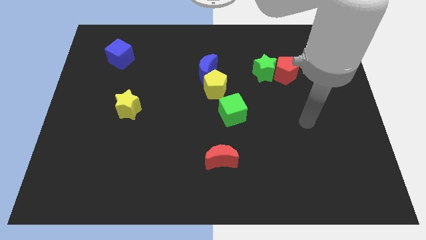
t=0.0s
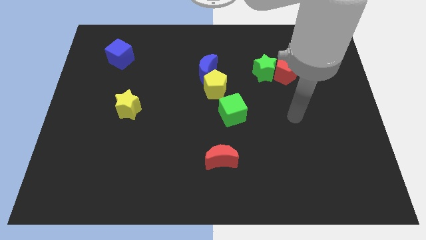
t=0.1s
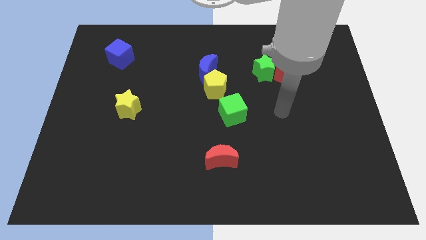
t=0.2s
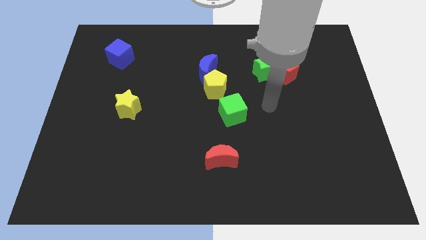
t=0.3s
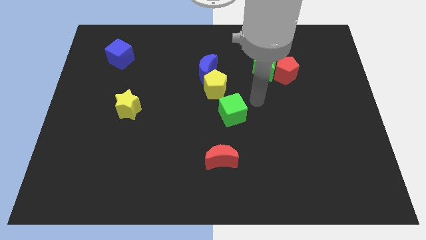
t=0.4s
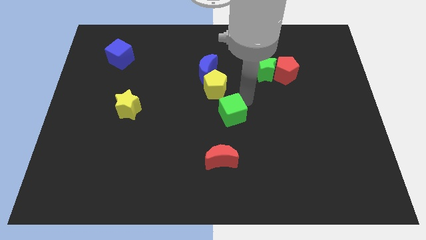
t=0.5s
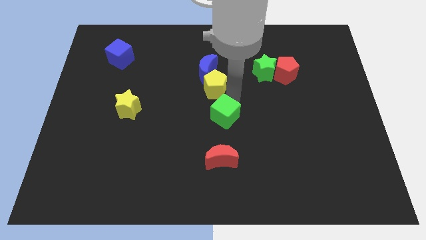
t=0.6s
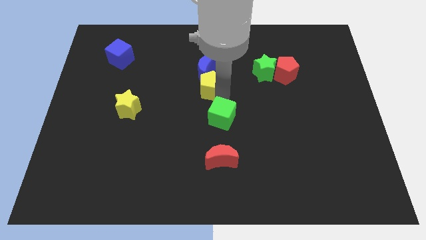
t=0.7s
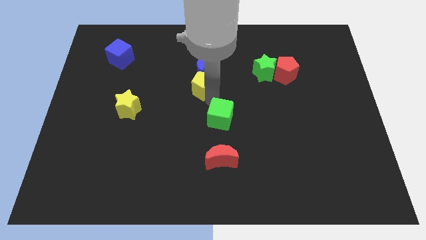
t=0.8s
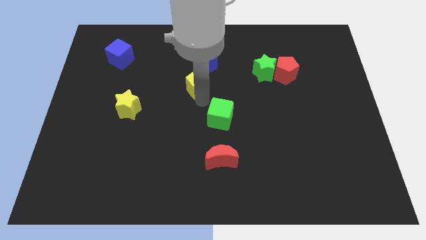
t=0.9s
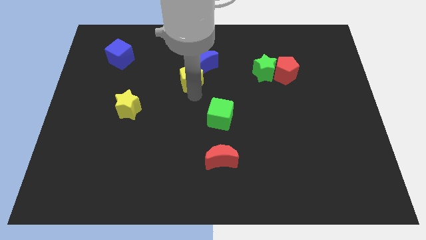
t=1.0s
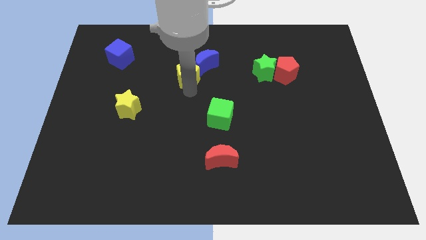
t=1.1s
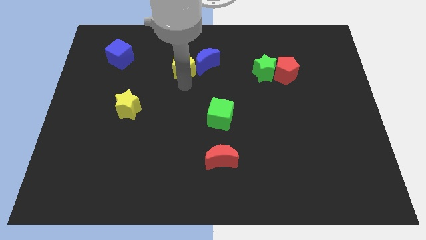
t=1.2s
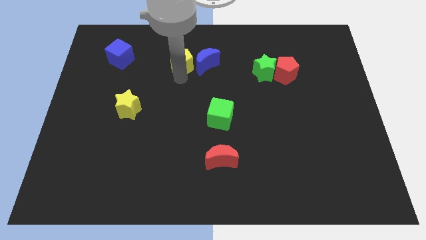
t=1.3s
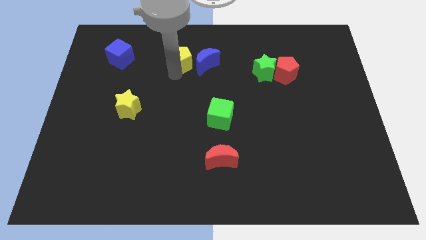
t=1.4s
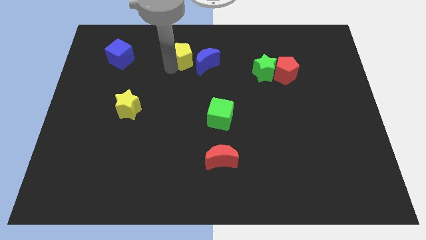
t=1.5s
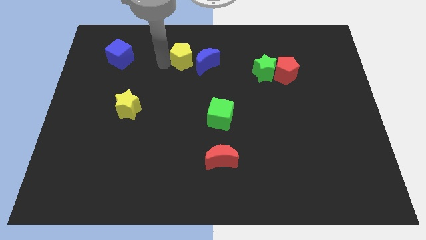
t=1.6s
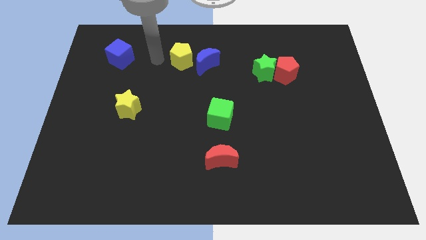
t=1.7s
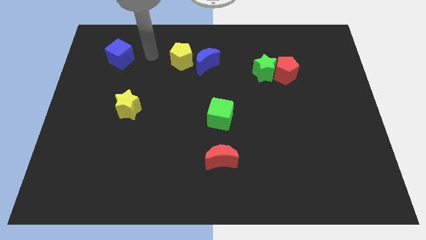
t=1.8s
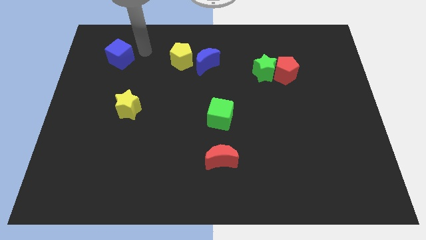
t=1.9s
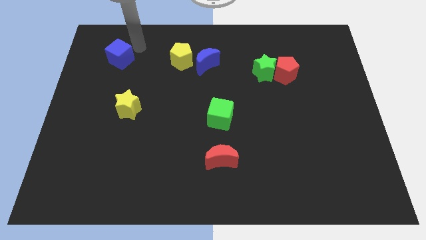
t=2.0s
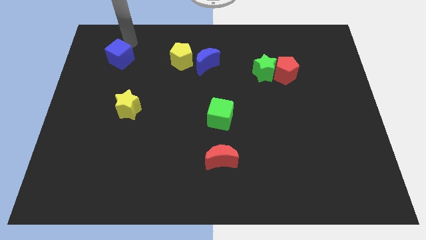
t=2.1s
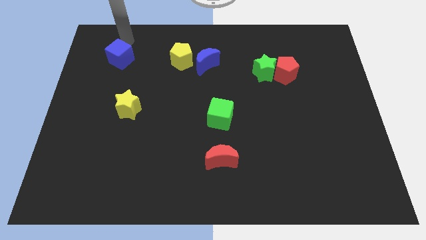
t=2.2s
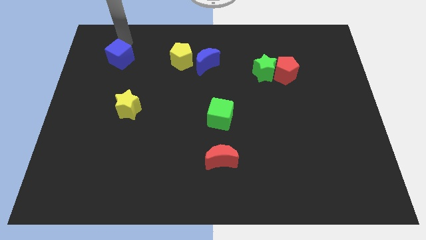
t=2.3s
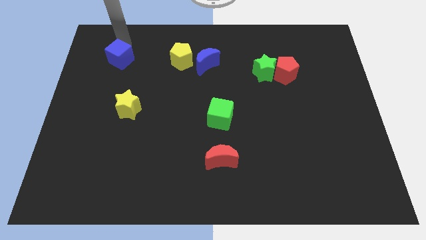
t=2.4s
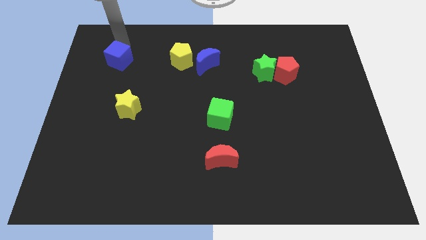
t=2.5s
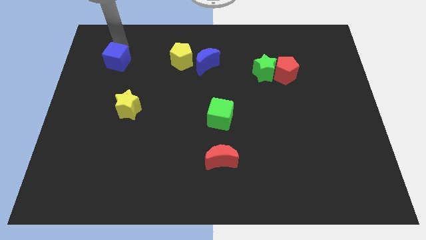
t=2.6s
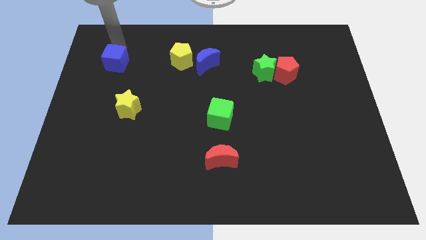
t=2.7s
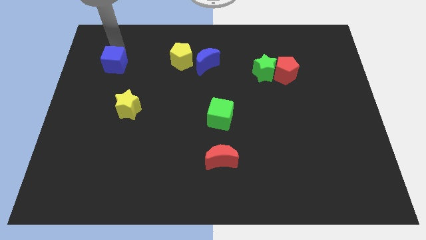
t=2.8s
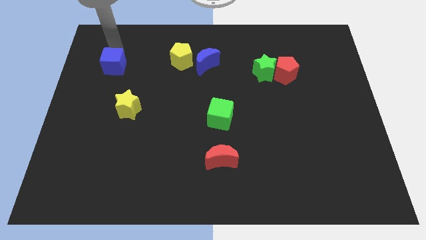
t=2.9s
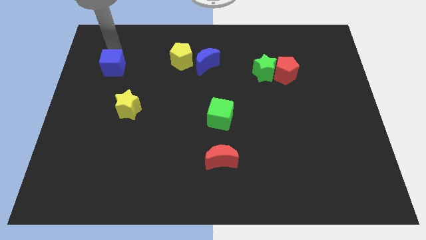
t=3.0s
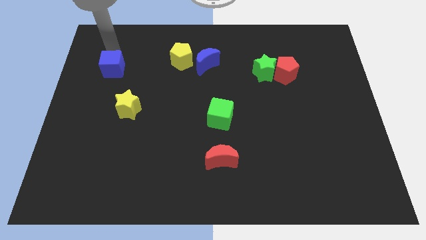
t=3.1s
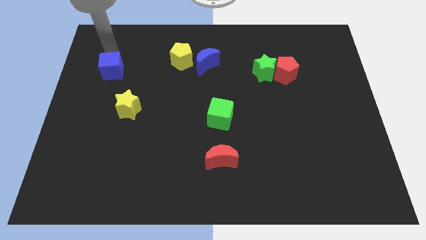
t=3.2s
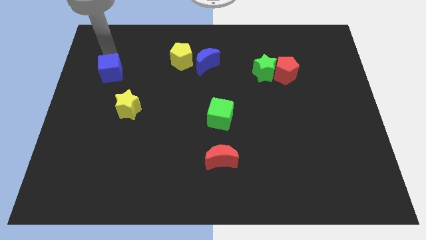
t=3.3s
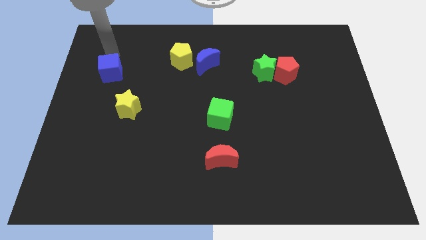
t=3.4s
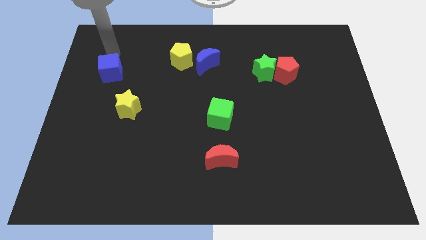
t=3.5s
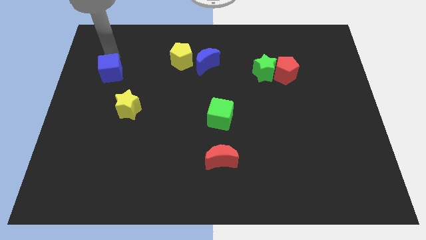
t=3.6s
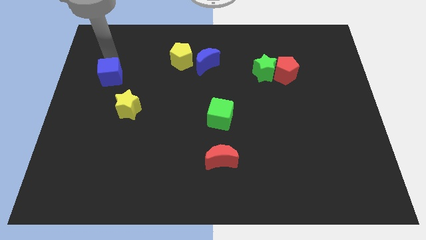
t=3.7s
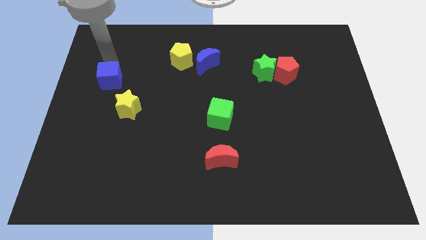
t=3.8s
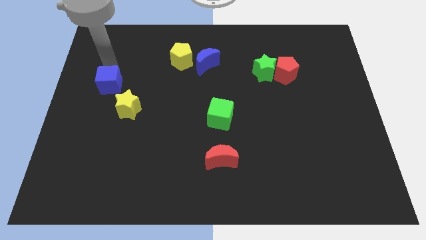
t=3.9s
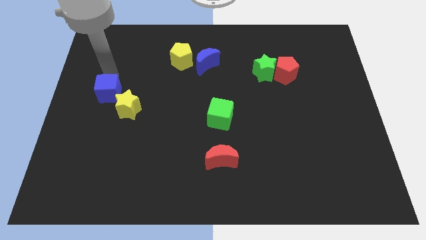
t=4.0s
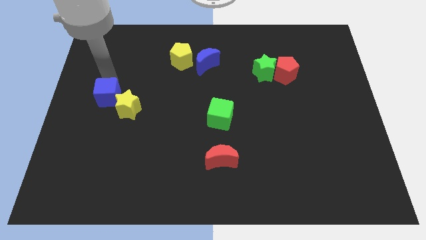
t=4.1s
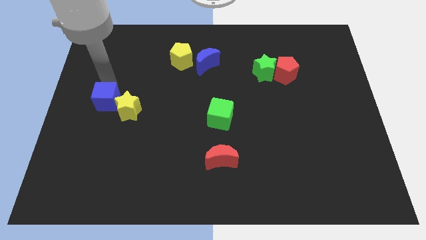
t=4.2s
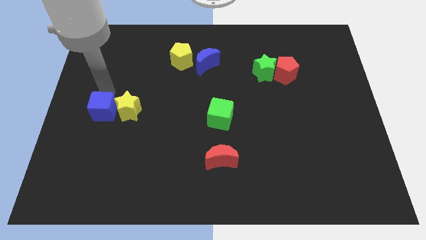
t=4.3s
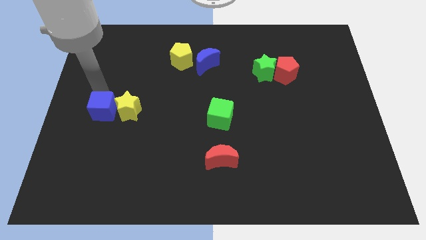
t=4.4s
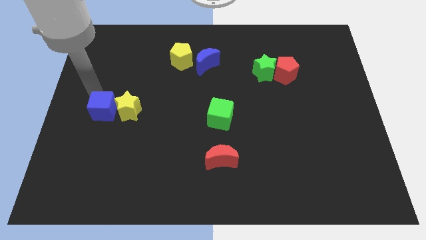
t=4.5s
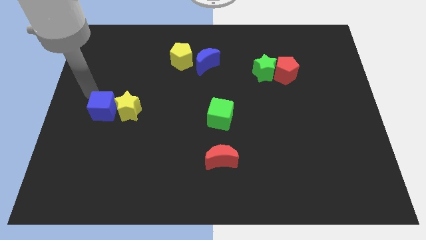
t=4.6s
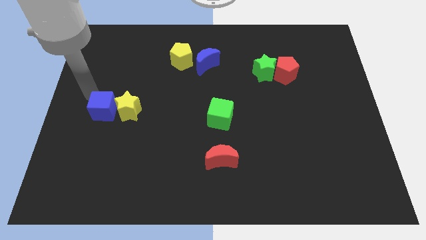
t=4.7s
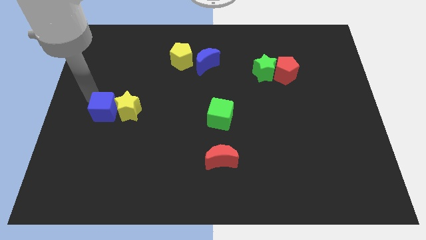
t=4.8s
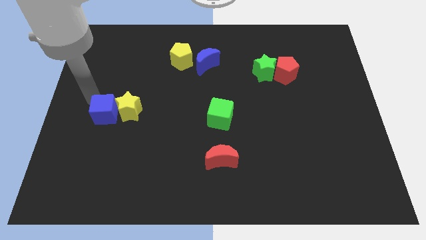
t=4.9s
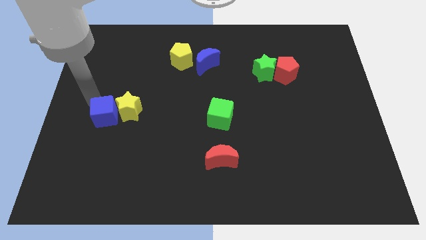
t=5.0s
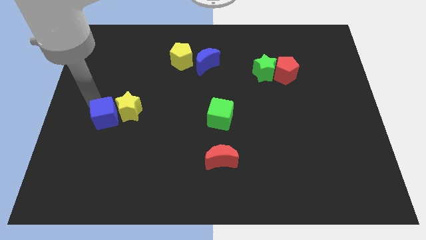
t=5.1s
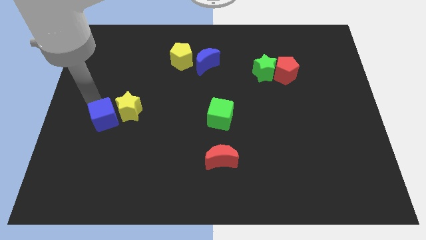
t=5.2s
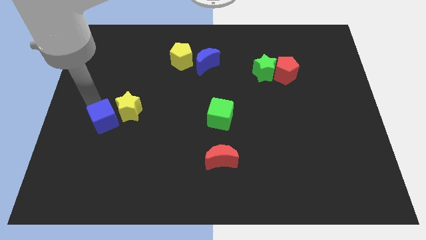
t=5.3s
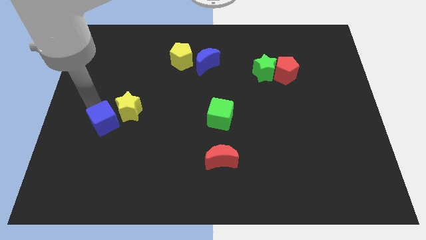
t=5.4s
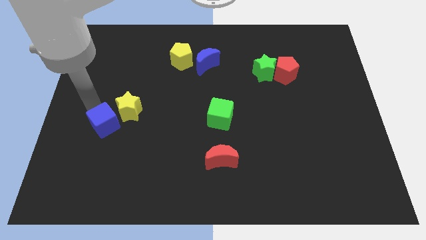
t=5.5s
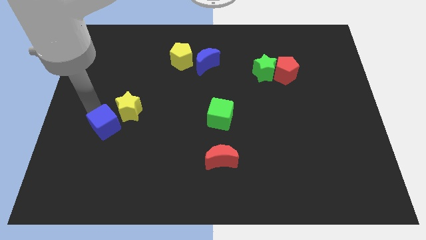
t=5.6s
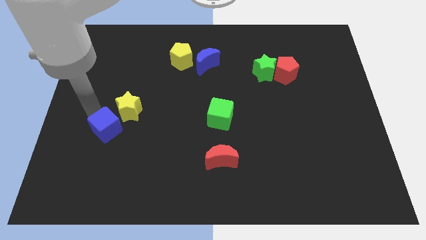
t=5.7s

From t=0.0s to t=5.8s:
put the blue cube to the bottom side of the yellow star

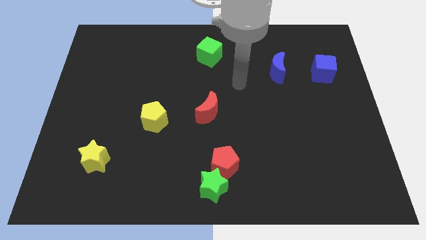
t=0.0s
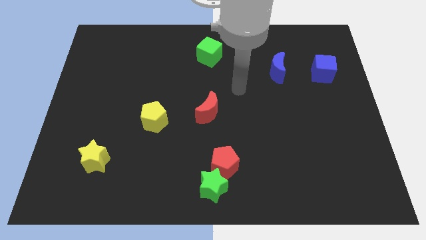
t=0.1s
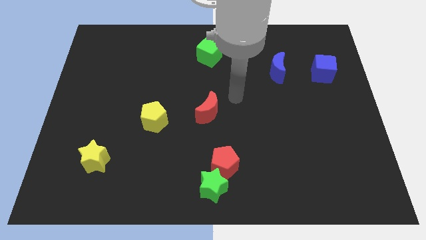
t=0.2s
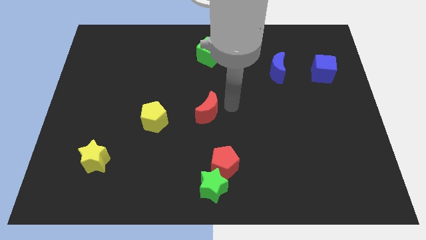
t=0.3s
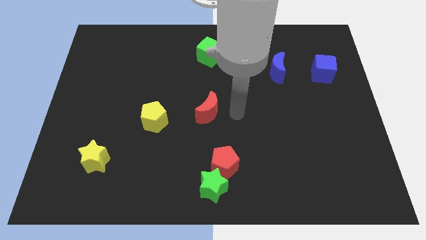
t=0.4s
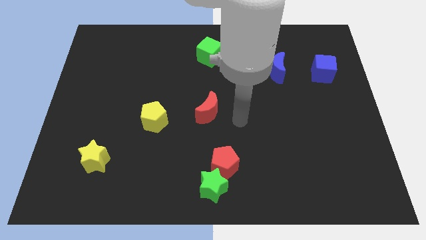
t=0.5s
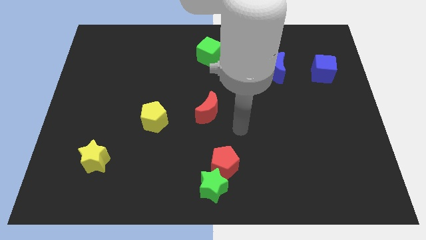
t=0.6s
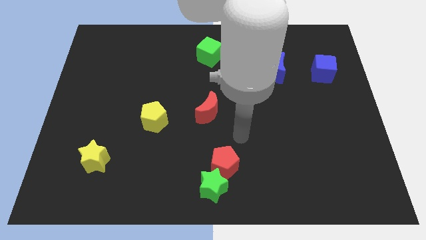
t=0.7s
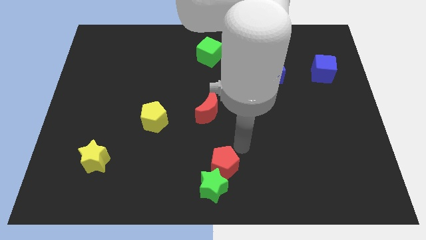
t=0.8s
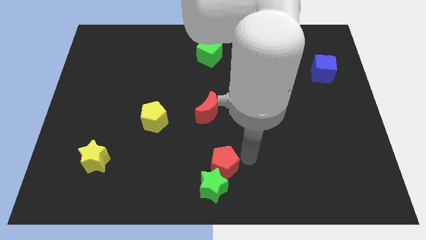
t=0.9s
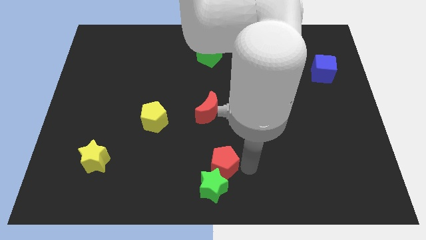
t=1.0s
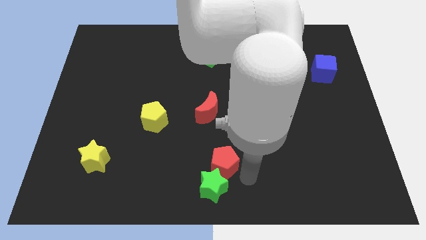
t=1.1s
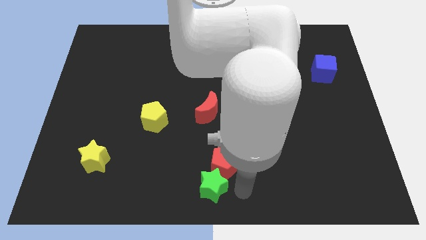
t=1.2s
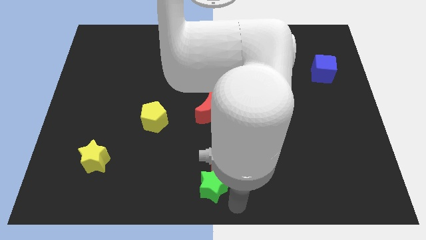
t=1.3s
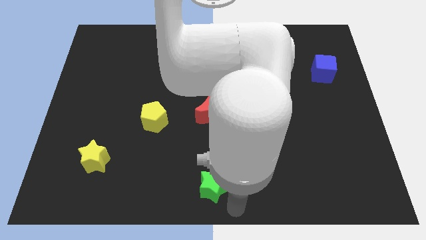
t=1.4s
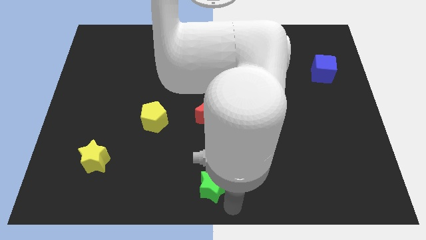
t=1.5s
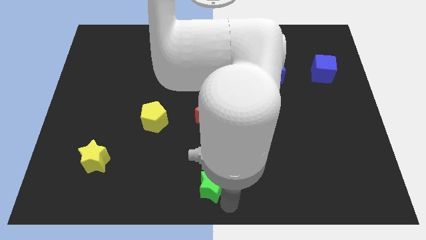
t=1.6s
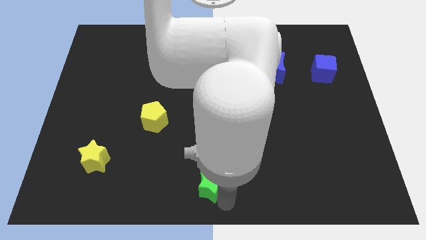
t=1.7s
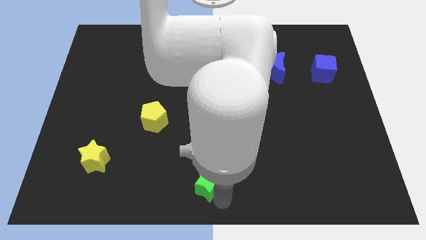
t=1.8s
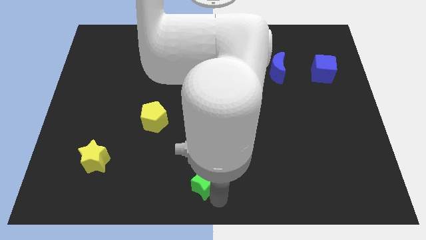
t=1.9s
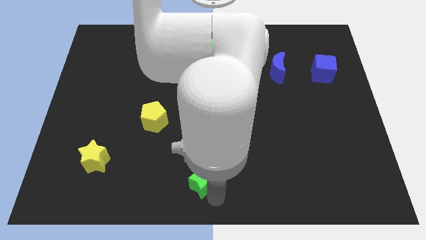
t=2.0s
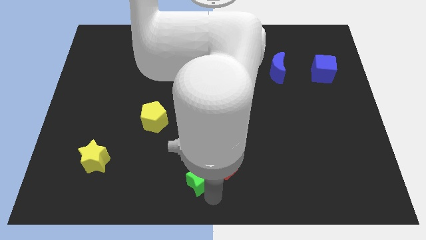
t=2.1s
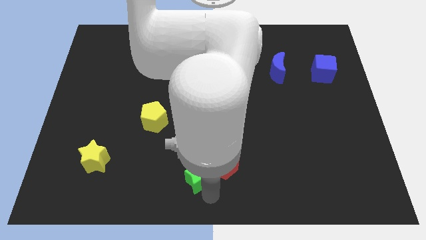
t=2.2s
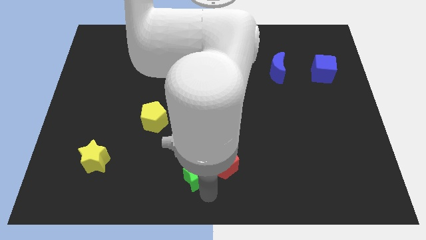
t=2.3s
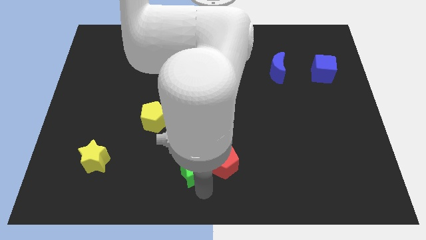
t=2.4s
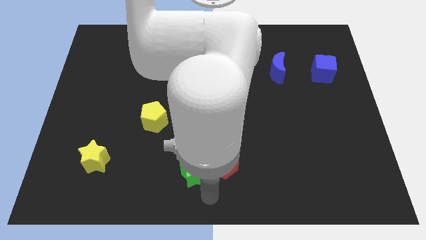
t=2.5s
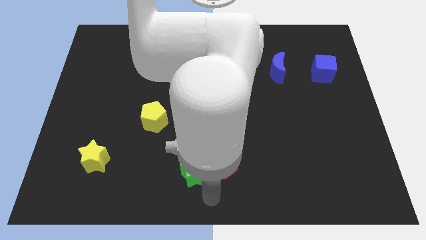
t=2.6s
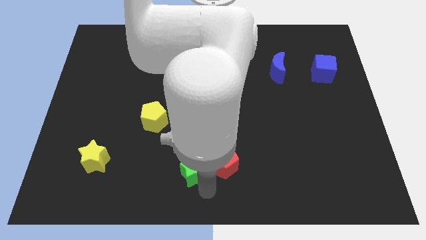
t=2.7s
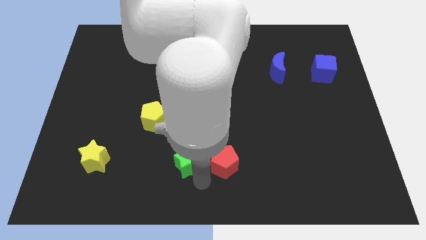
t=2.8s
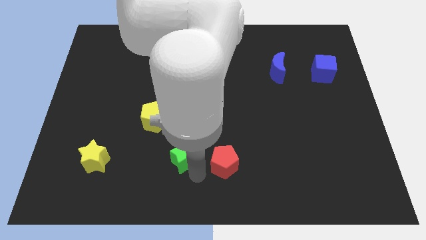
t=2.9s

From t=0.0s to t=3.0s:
slide the green star to the bottom right side of the yellow pentagon
